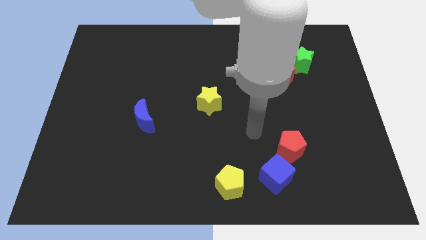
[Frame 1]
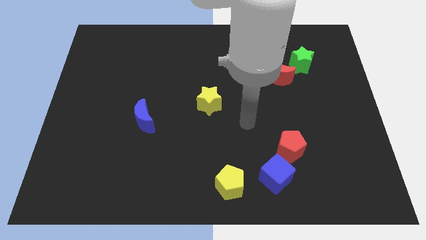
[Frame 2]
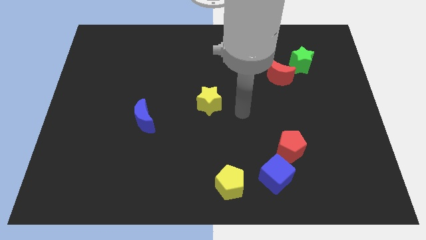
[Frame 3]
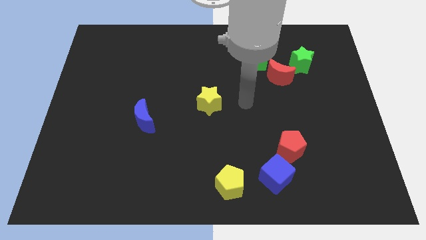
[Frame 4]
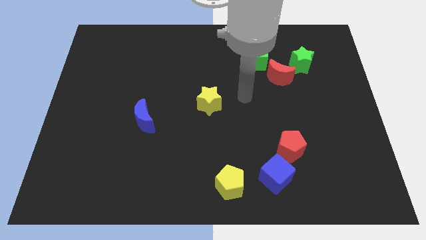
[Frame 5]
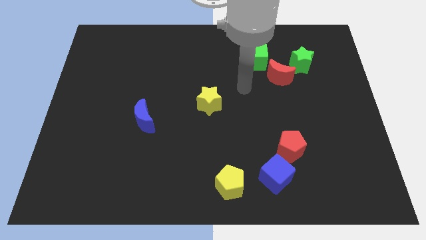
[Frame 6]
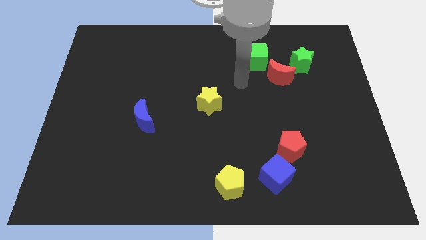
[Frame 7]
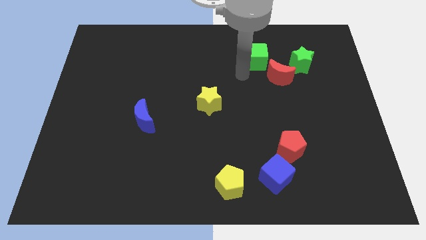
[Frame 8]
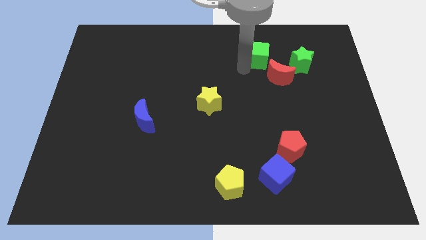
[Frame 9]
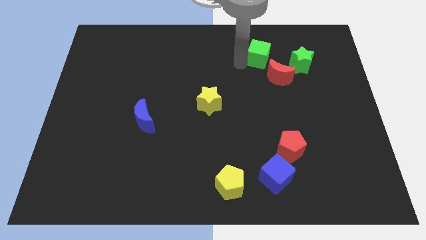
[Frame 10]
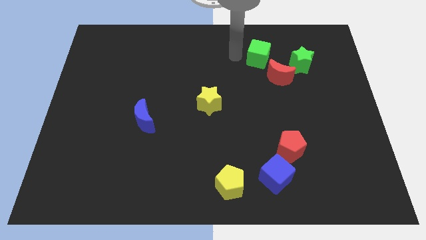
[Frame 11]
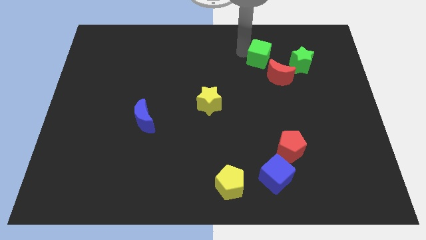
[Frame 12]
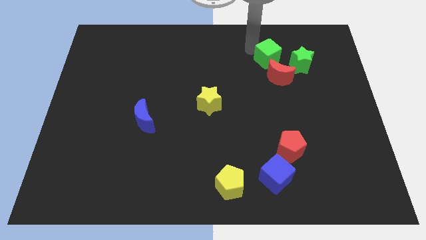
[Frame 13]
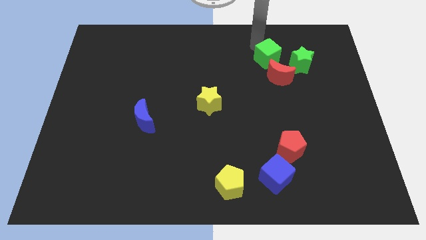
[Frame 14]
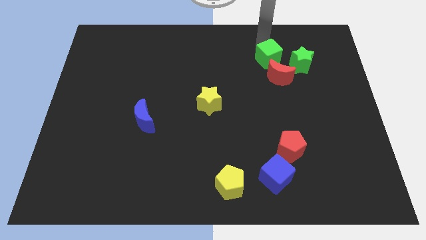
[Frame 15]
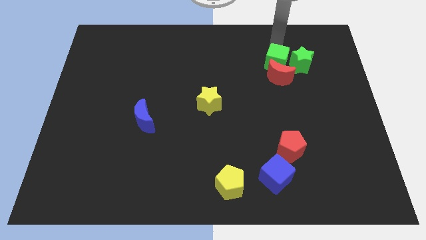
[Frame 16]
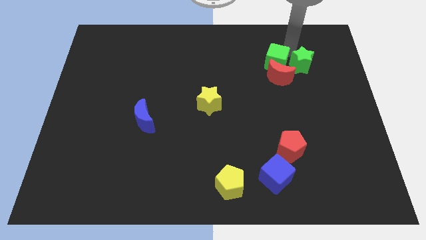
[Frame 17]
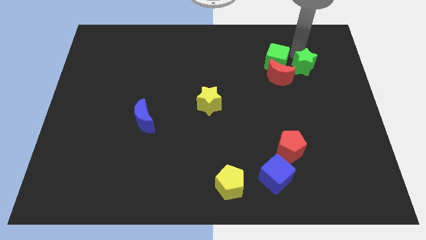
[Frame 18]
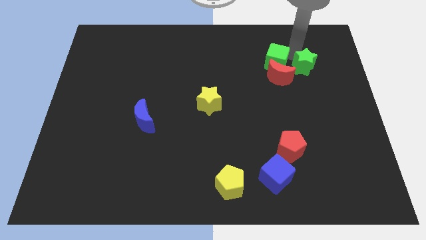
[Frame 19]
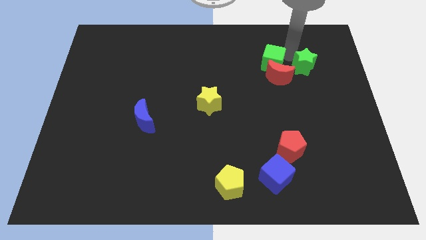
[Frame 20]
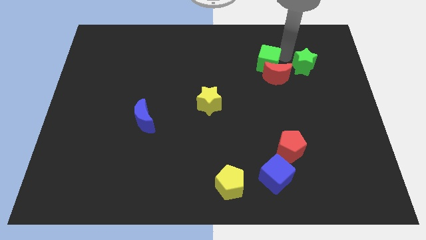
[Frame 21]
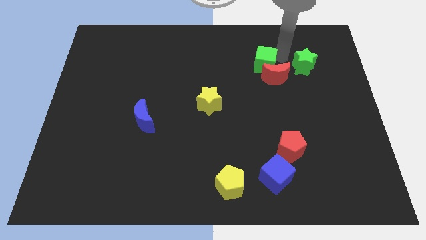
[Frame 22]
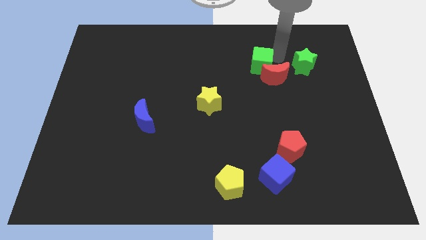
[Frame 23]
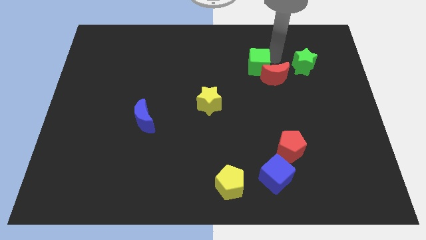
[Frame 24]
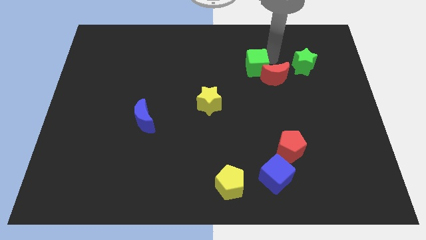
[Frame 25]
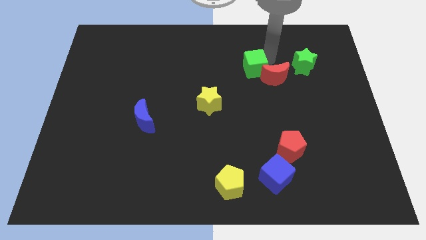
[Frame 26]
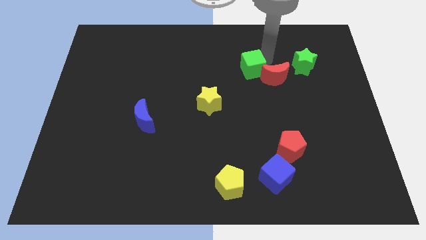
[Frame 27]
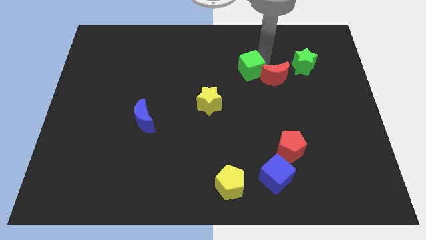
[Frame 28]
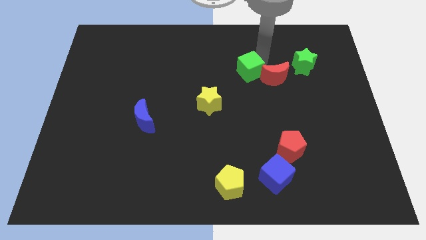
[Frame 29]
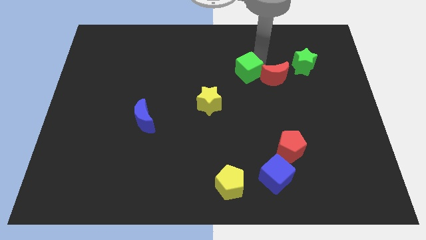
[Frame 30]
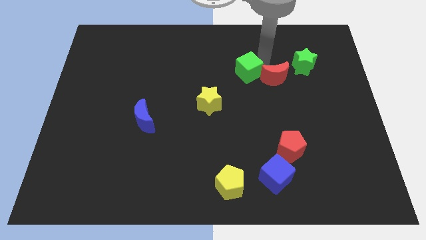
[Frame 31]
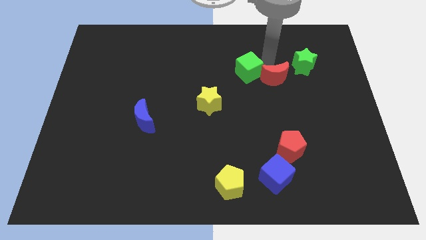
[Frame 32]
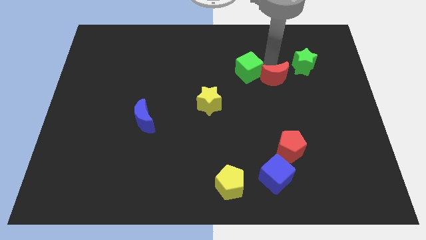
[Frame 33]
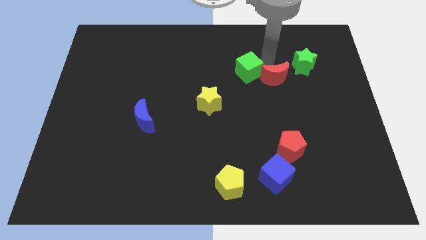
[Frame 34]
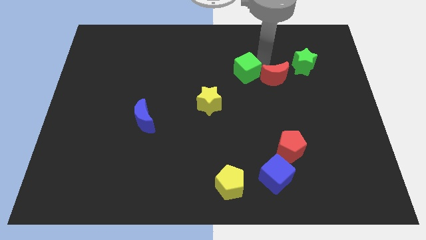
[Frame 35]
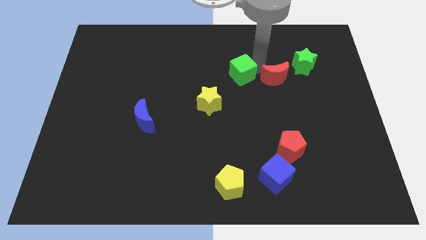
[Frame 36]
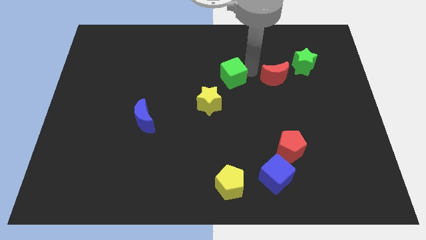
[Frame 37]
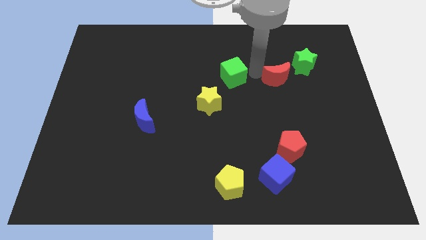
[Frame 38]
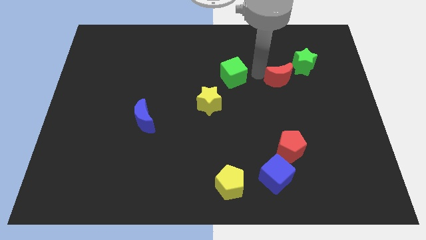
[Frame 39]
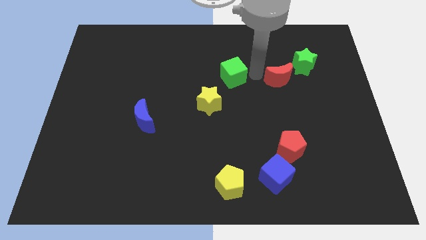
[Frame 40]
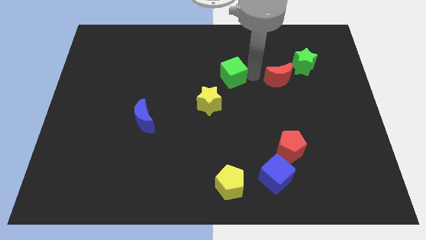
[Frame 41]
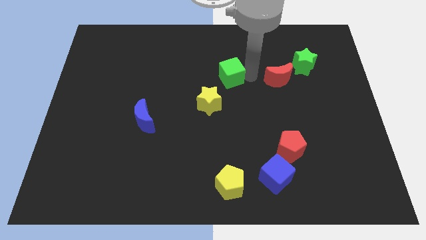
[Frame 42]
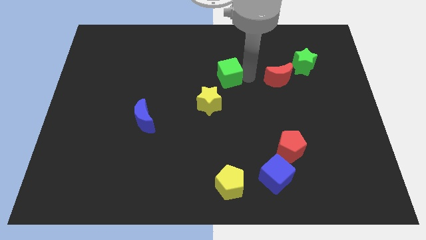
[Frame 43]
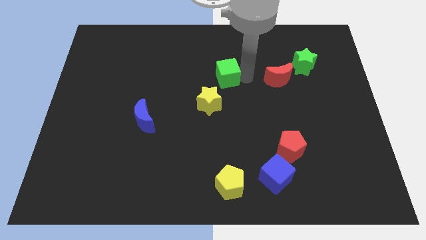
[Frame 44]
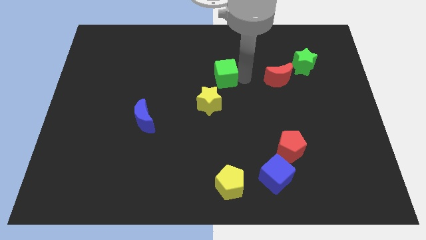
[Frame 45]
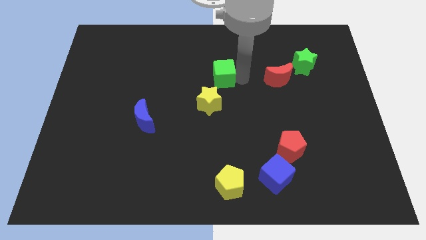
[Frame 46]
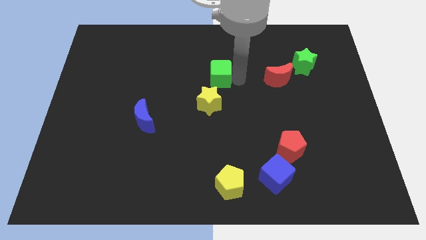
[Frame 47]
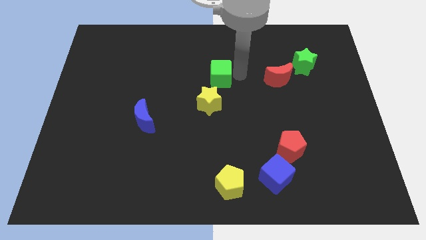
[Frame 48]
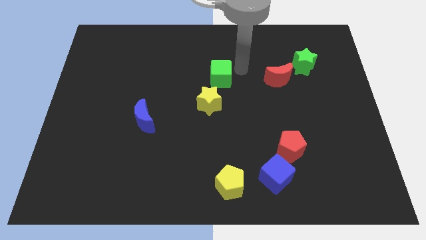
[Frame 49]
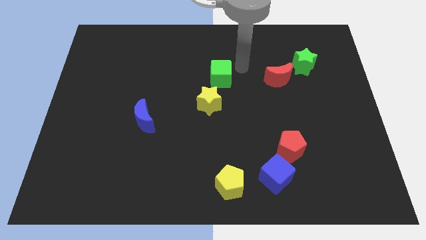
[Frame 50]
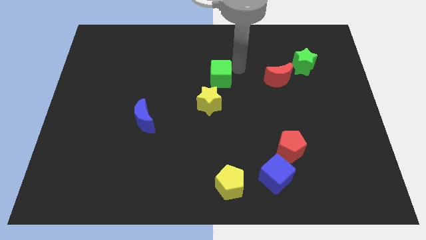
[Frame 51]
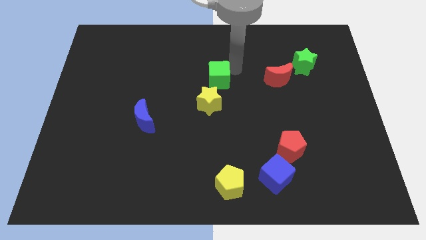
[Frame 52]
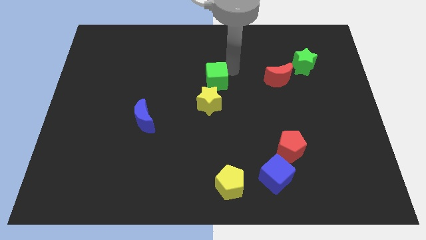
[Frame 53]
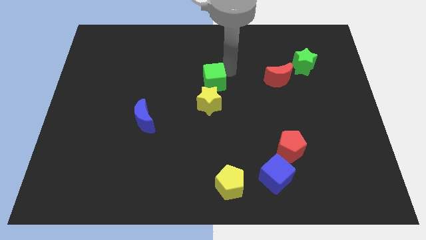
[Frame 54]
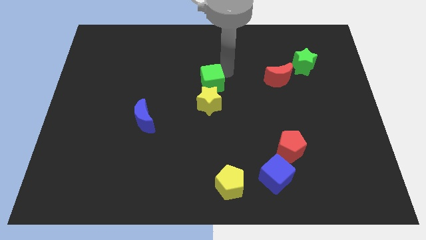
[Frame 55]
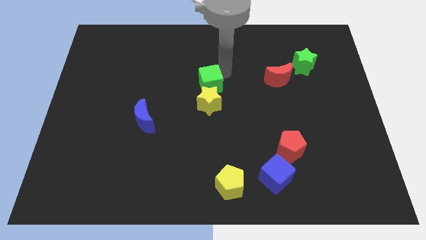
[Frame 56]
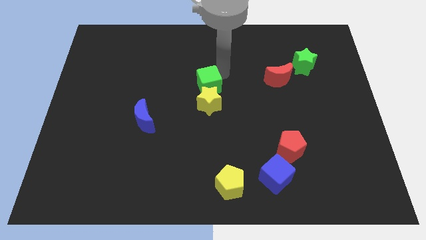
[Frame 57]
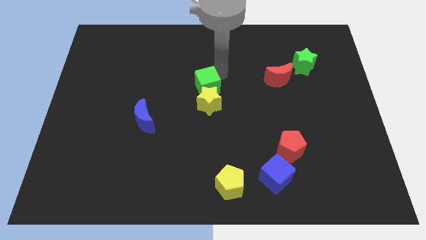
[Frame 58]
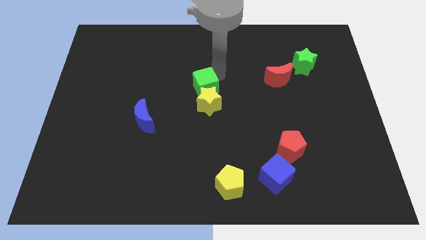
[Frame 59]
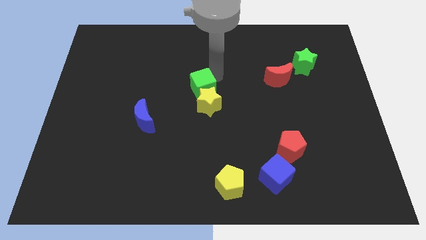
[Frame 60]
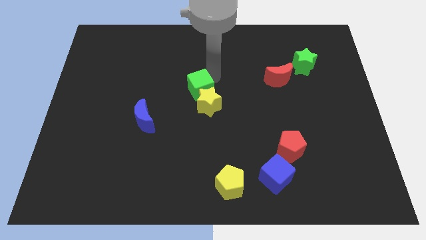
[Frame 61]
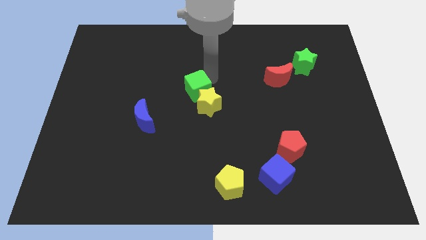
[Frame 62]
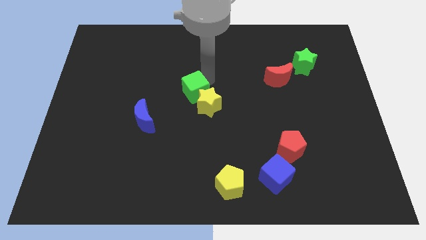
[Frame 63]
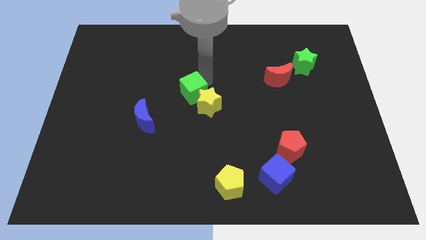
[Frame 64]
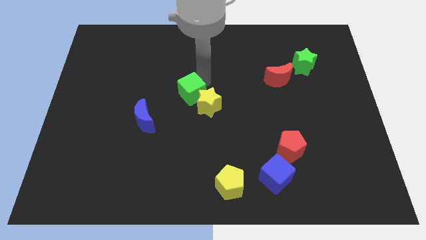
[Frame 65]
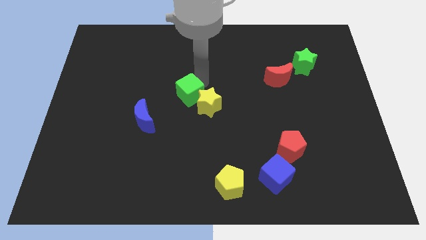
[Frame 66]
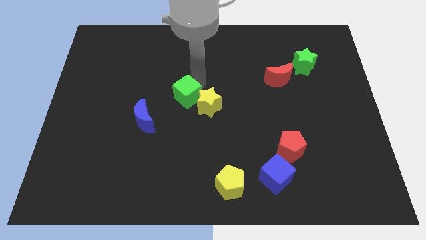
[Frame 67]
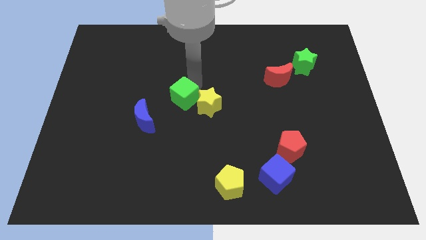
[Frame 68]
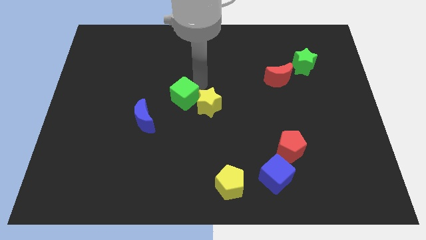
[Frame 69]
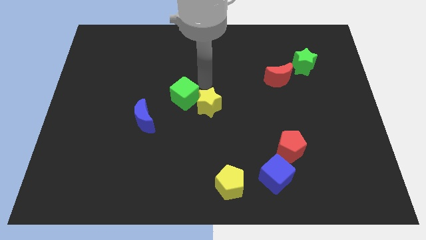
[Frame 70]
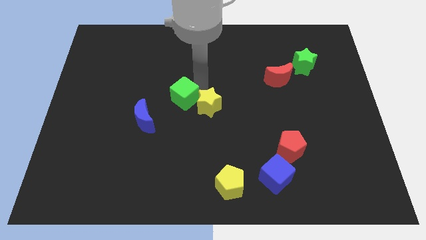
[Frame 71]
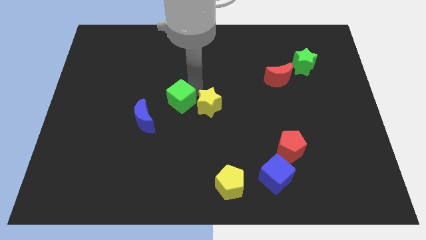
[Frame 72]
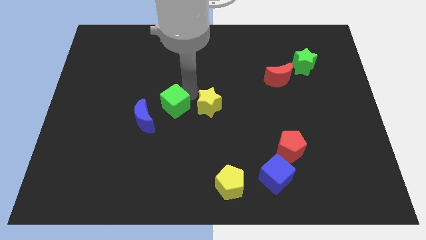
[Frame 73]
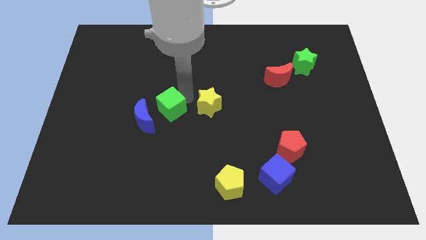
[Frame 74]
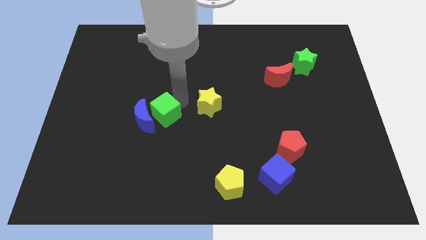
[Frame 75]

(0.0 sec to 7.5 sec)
slide the green cube close to the blue moon

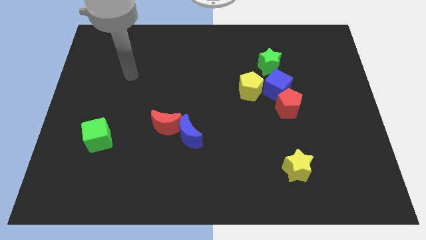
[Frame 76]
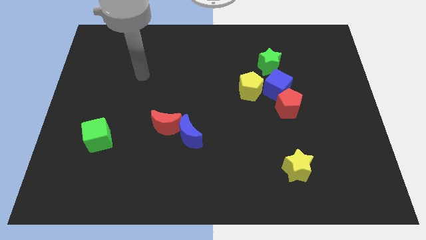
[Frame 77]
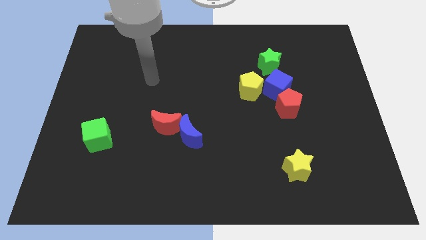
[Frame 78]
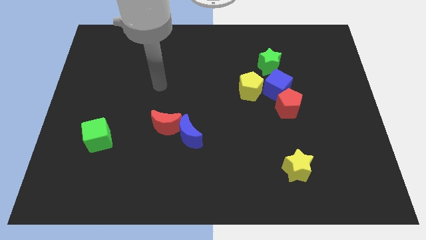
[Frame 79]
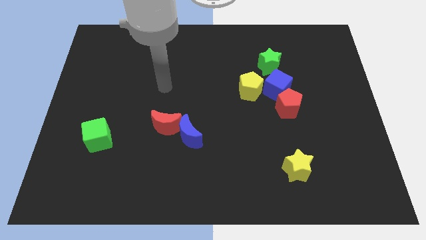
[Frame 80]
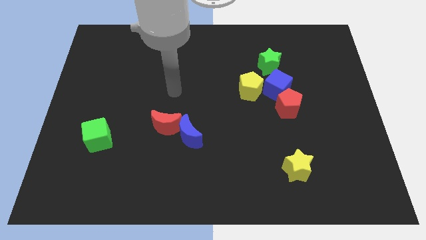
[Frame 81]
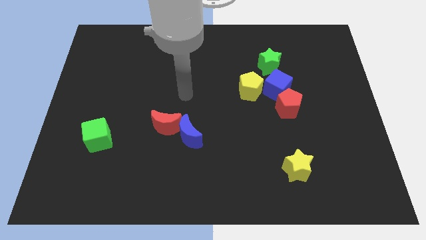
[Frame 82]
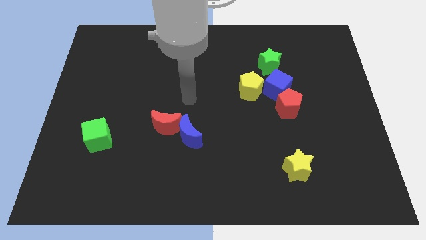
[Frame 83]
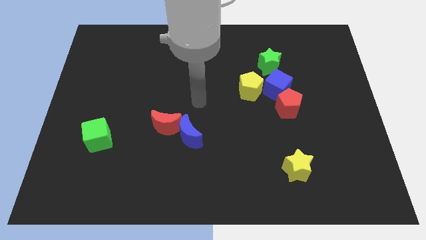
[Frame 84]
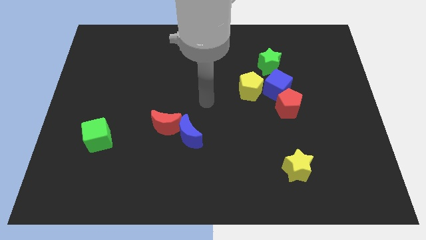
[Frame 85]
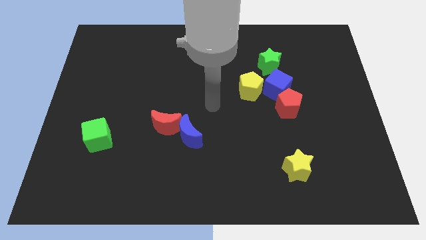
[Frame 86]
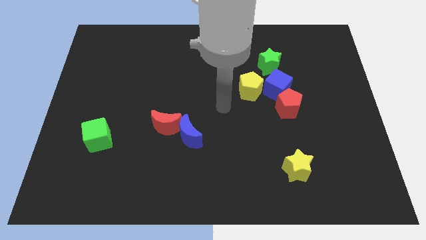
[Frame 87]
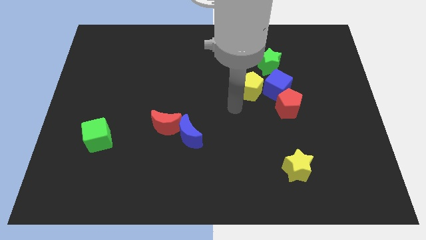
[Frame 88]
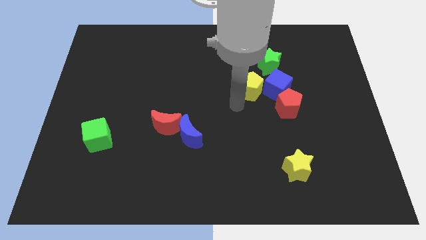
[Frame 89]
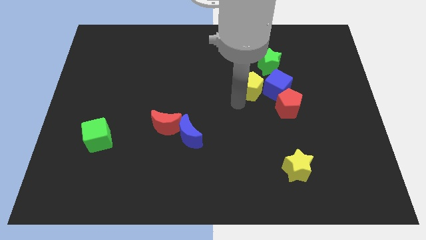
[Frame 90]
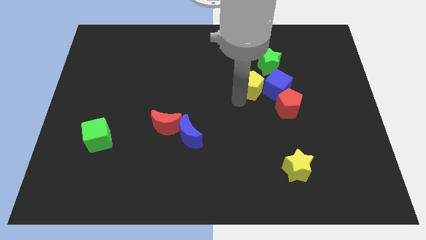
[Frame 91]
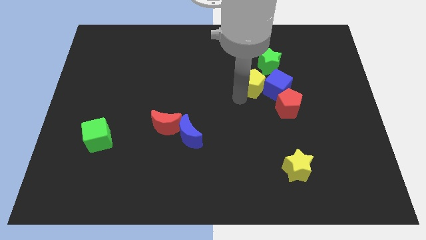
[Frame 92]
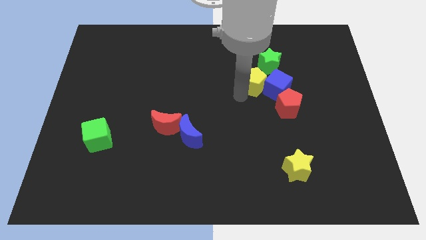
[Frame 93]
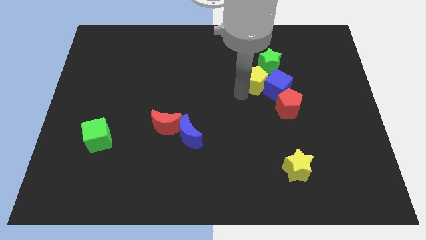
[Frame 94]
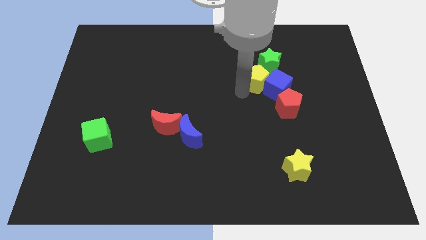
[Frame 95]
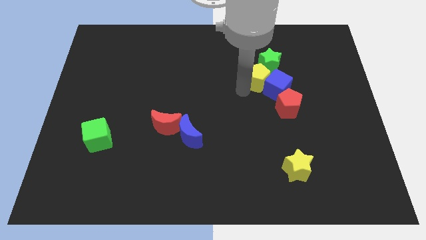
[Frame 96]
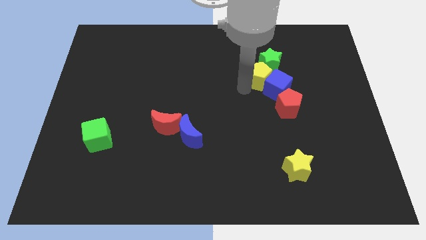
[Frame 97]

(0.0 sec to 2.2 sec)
slide the yellow pentagon close to the green star
